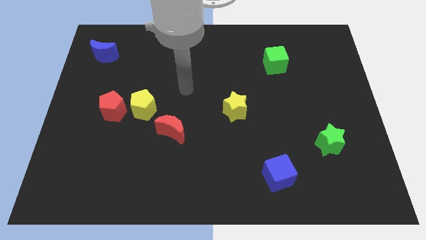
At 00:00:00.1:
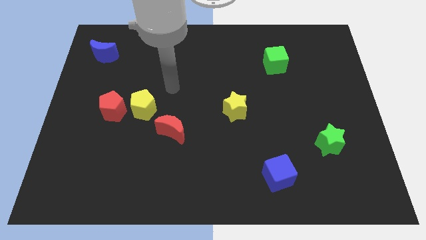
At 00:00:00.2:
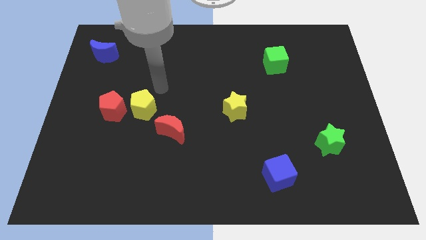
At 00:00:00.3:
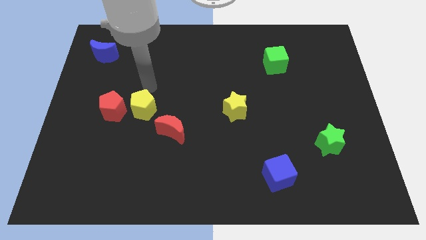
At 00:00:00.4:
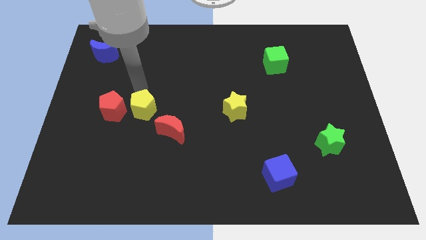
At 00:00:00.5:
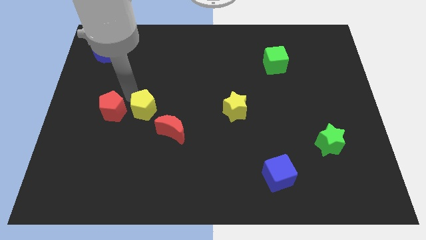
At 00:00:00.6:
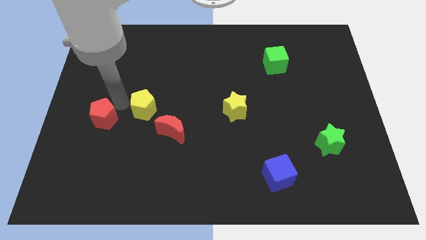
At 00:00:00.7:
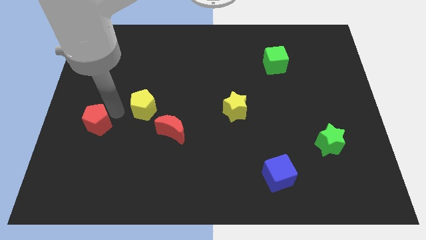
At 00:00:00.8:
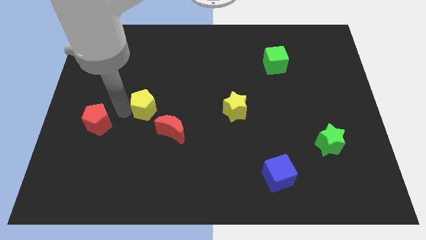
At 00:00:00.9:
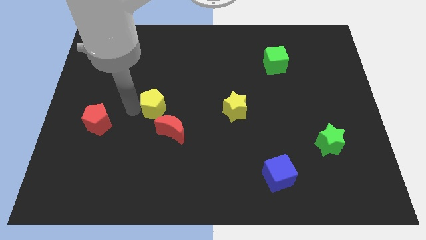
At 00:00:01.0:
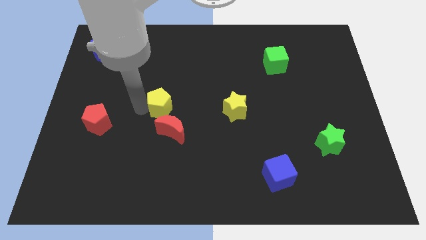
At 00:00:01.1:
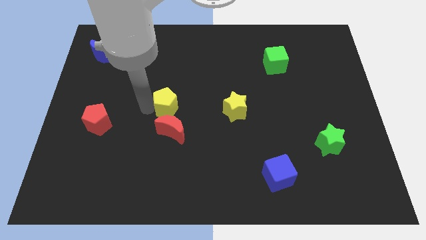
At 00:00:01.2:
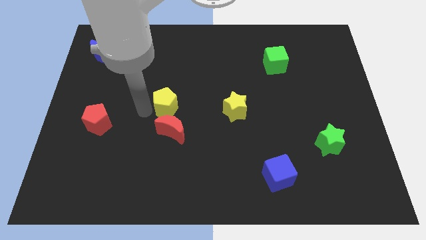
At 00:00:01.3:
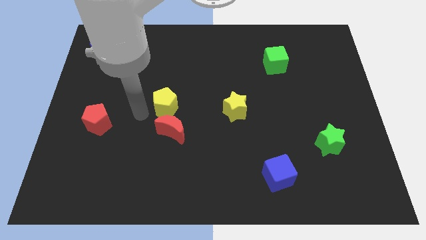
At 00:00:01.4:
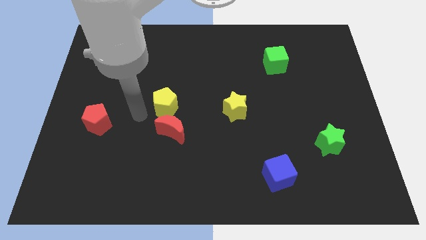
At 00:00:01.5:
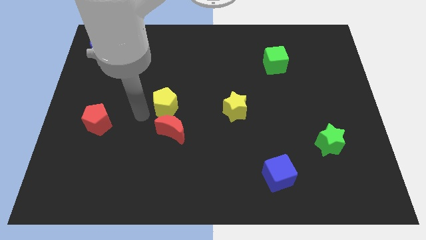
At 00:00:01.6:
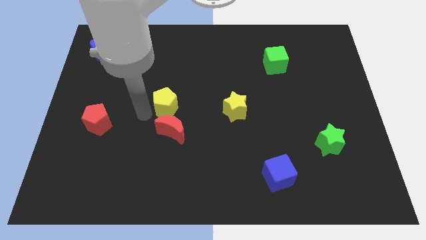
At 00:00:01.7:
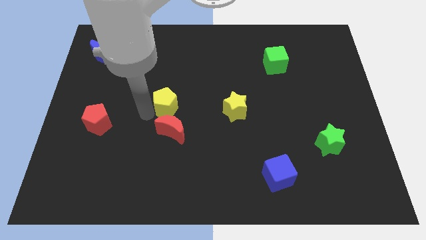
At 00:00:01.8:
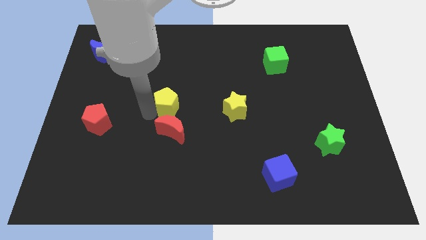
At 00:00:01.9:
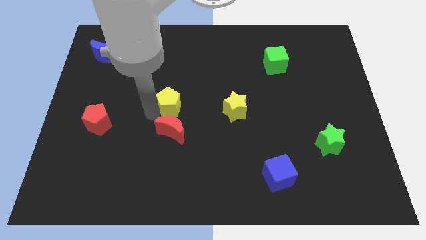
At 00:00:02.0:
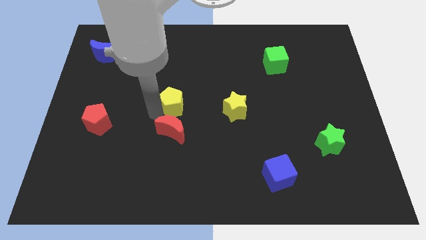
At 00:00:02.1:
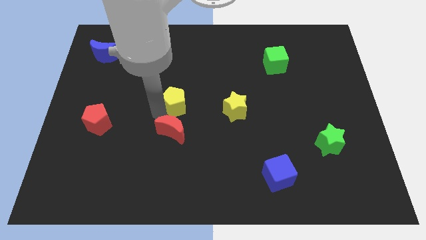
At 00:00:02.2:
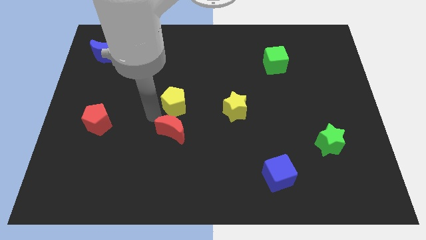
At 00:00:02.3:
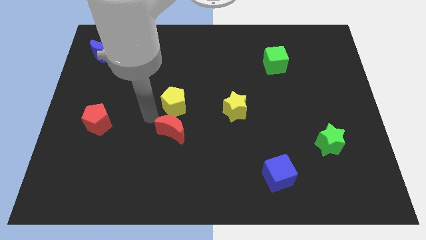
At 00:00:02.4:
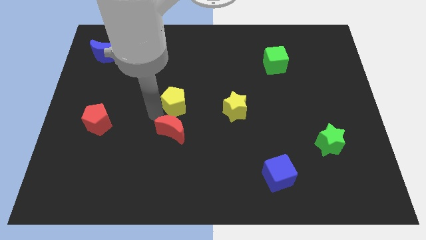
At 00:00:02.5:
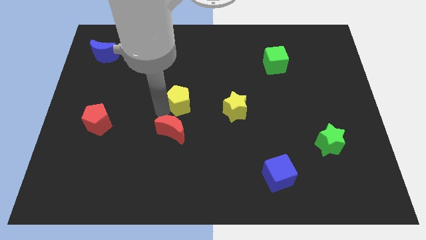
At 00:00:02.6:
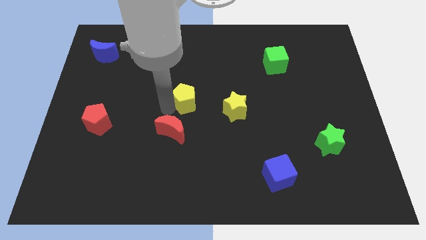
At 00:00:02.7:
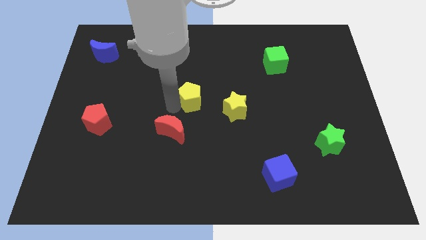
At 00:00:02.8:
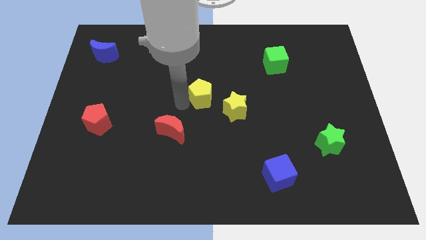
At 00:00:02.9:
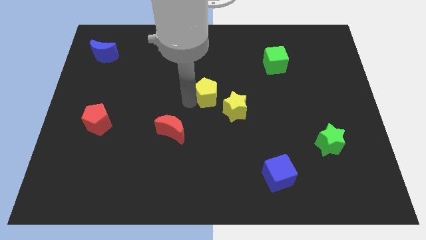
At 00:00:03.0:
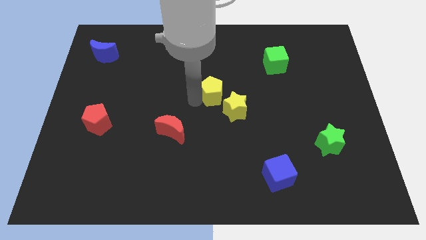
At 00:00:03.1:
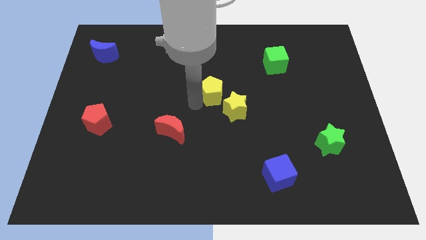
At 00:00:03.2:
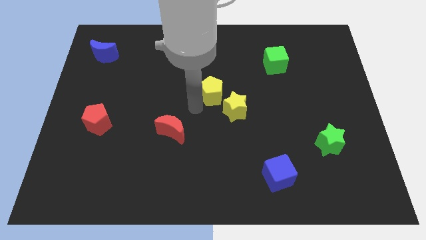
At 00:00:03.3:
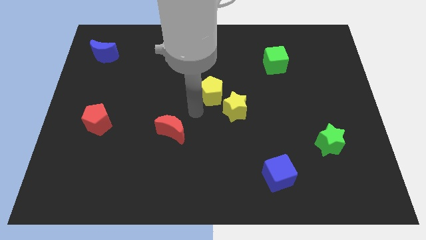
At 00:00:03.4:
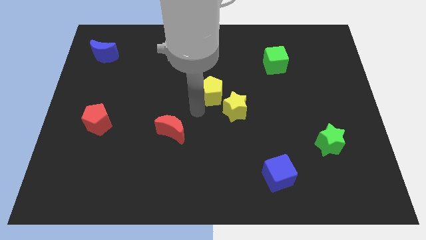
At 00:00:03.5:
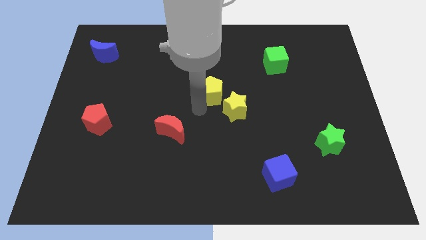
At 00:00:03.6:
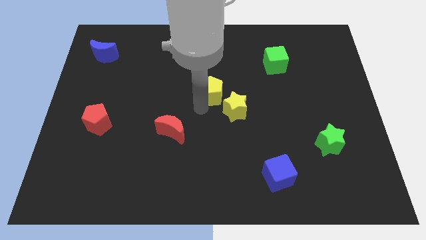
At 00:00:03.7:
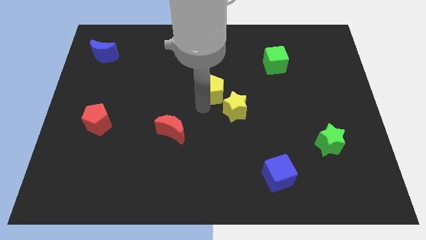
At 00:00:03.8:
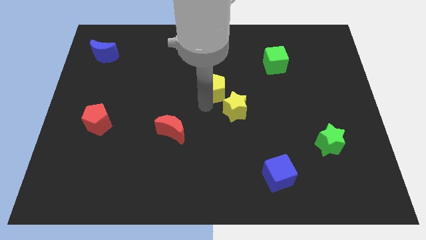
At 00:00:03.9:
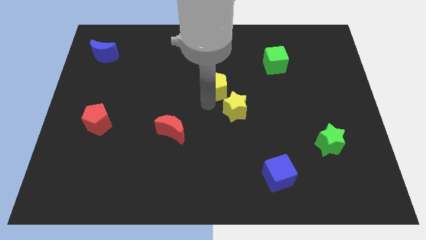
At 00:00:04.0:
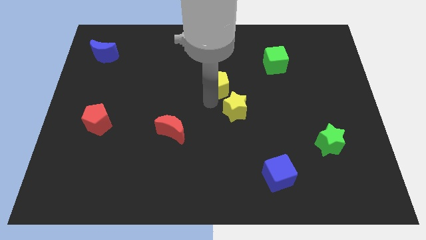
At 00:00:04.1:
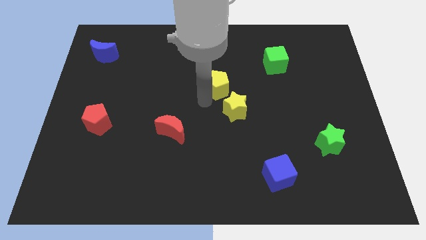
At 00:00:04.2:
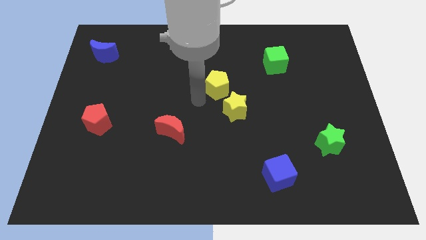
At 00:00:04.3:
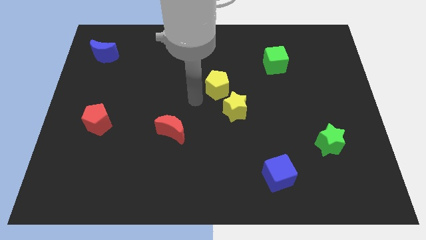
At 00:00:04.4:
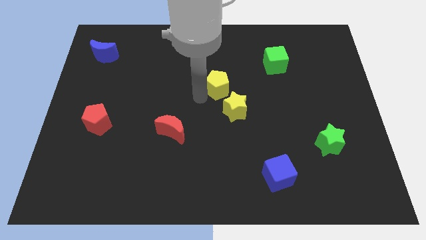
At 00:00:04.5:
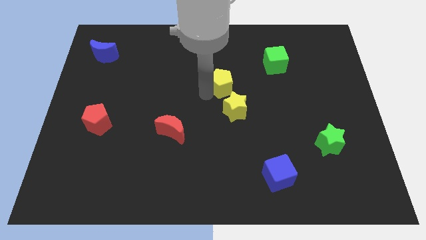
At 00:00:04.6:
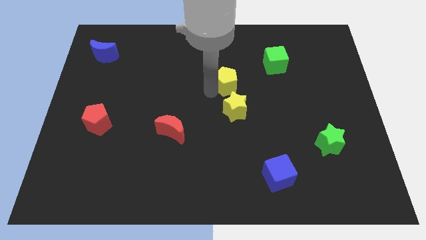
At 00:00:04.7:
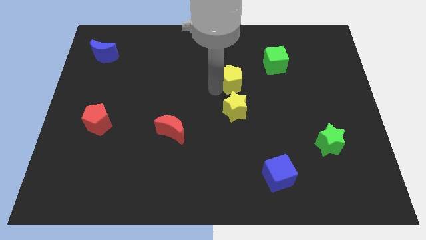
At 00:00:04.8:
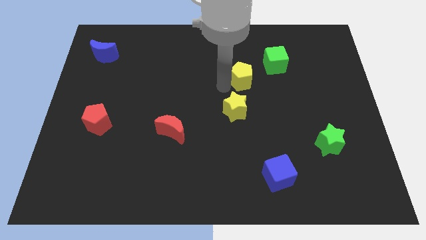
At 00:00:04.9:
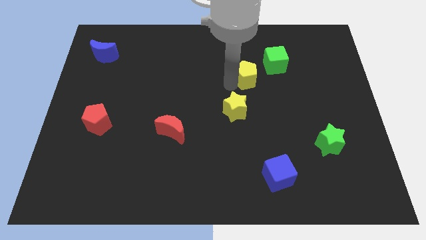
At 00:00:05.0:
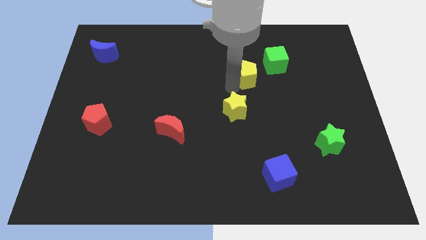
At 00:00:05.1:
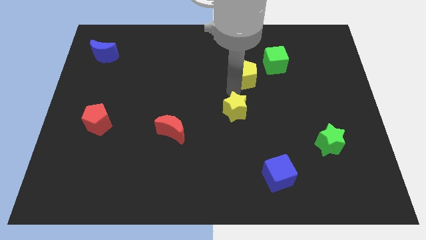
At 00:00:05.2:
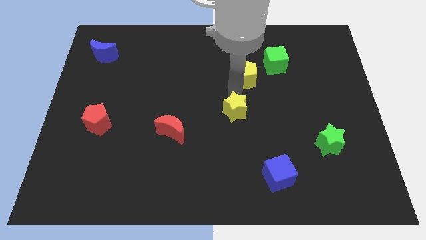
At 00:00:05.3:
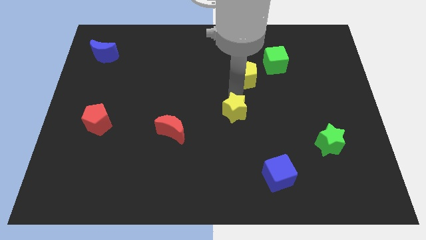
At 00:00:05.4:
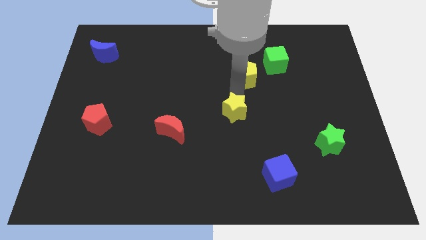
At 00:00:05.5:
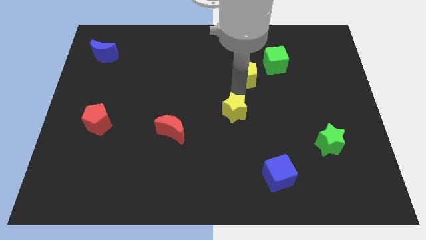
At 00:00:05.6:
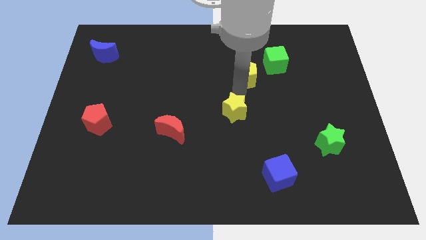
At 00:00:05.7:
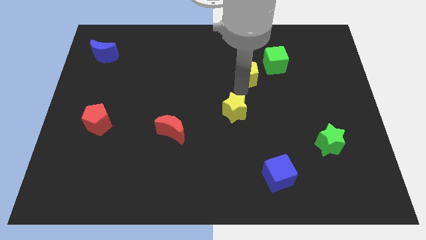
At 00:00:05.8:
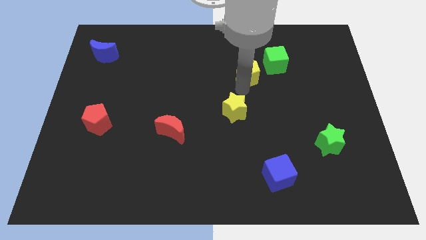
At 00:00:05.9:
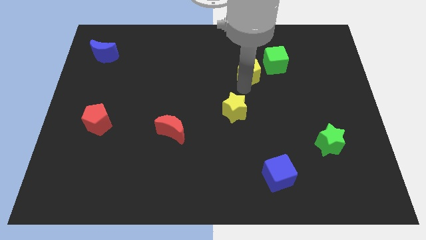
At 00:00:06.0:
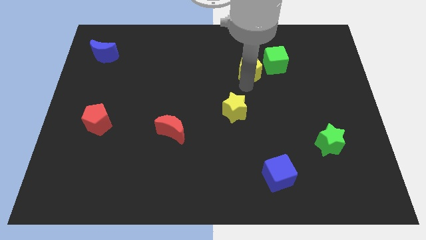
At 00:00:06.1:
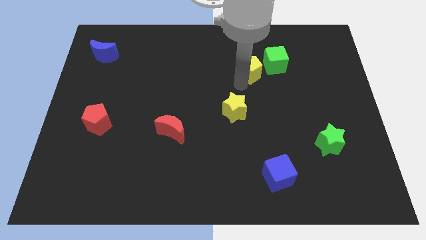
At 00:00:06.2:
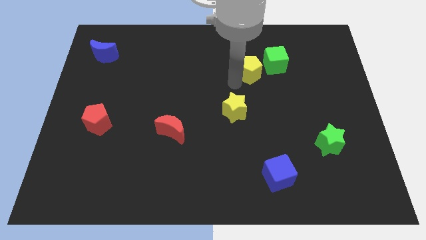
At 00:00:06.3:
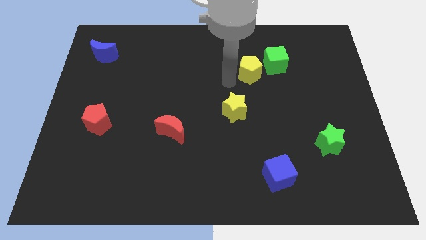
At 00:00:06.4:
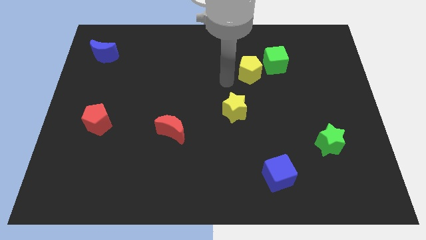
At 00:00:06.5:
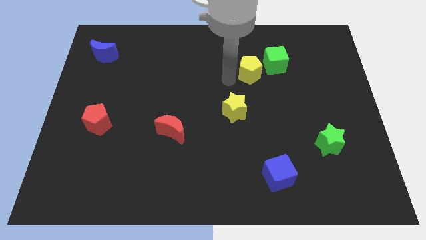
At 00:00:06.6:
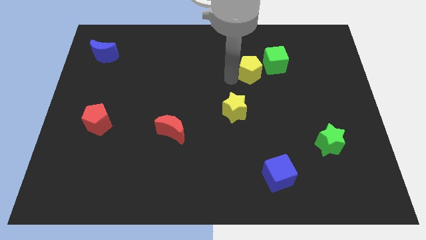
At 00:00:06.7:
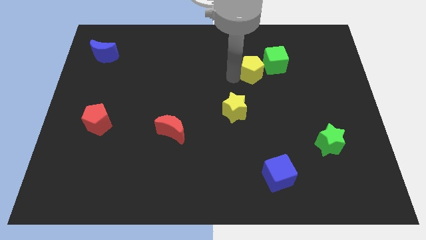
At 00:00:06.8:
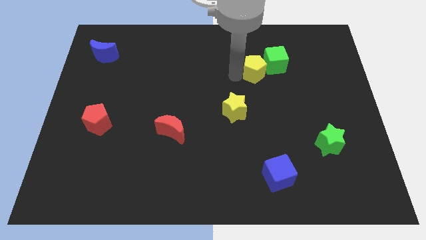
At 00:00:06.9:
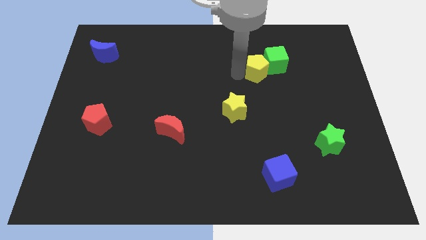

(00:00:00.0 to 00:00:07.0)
slide the yellow pentagon towards the green cube
